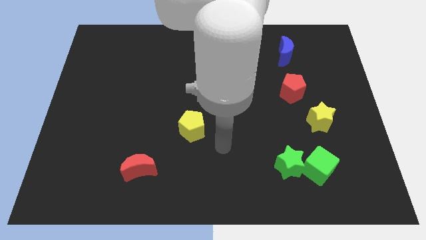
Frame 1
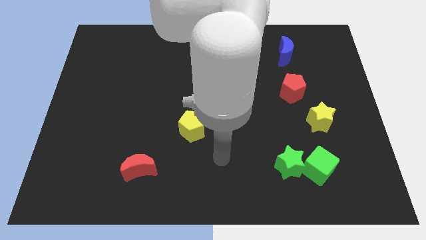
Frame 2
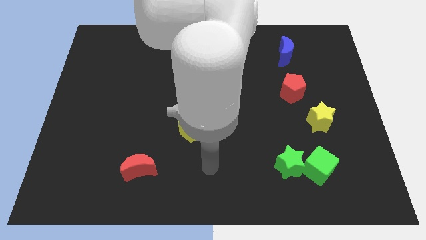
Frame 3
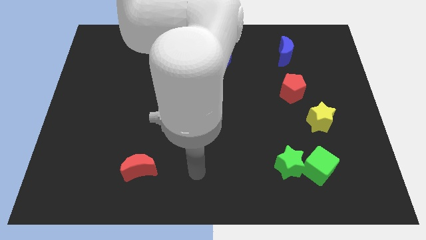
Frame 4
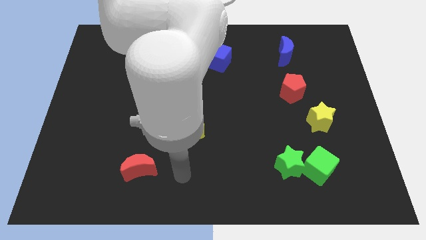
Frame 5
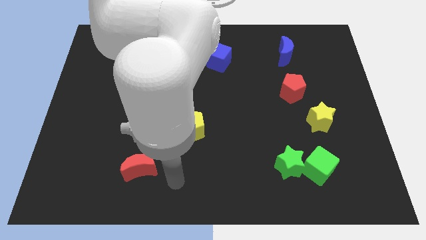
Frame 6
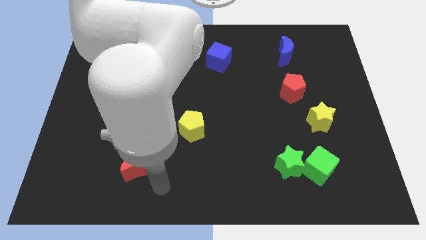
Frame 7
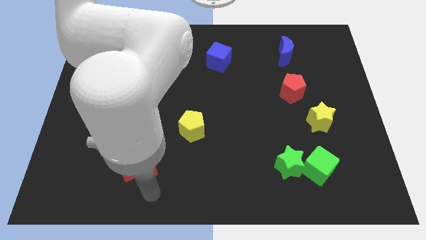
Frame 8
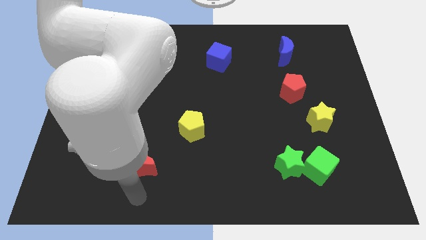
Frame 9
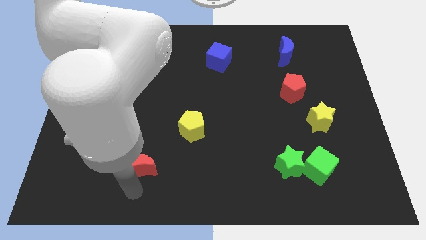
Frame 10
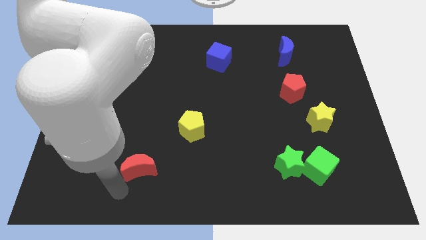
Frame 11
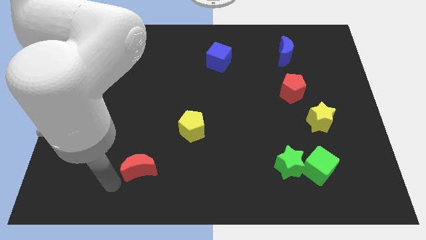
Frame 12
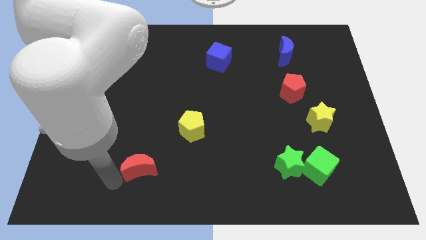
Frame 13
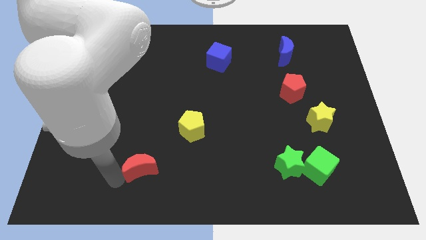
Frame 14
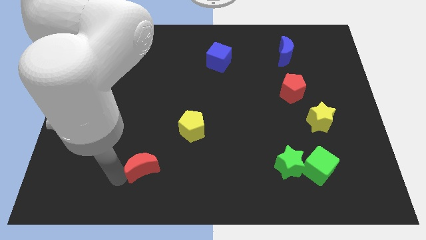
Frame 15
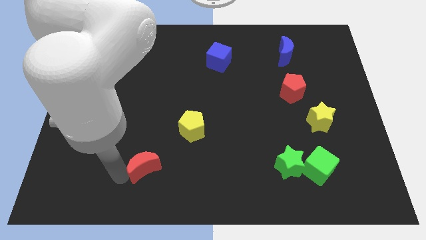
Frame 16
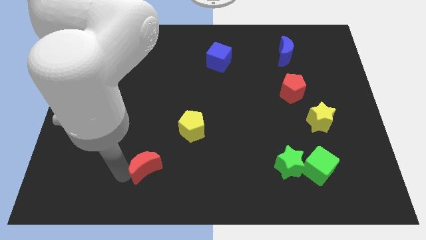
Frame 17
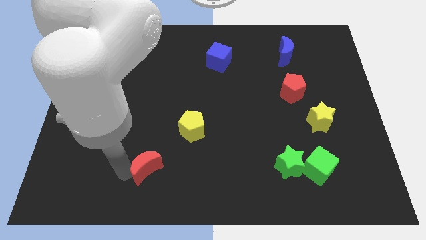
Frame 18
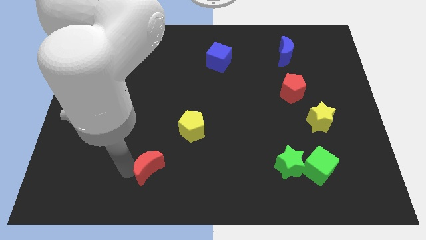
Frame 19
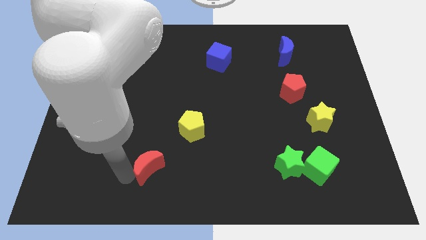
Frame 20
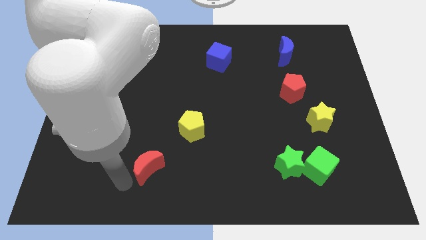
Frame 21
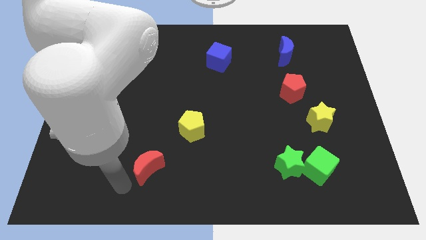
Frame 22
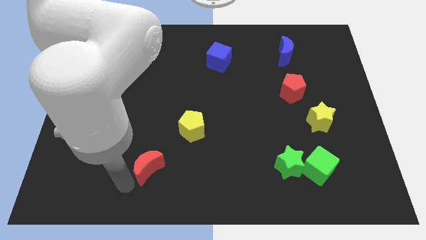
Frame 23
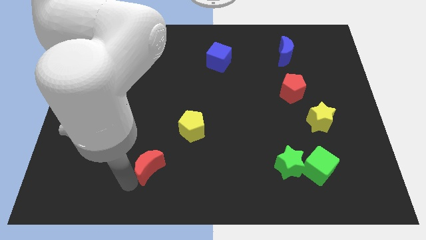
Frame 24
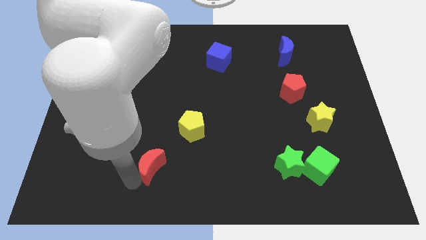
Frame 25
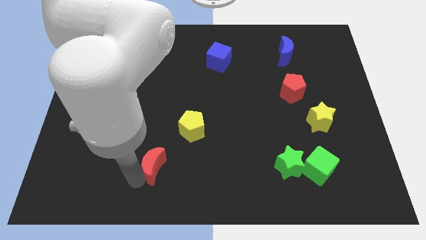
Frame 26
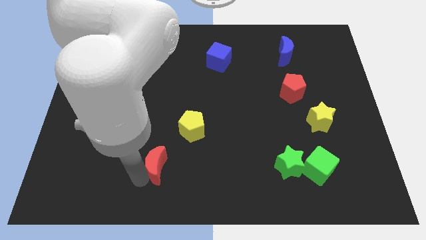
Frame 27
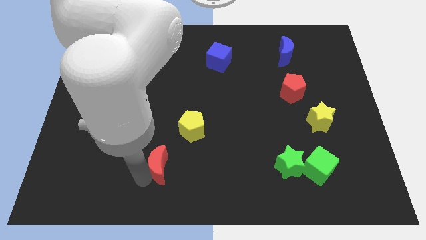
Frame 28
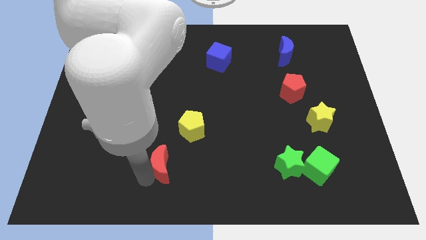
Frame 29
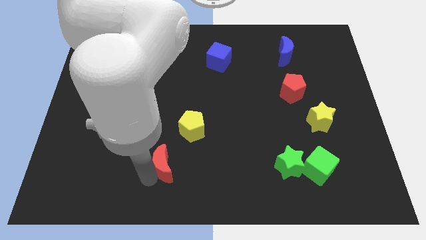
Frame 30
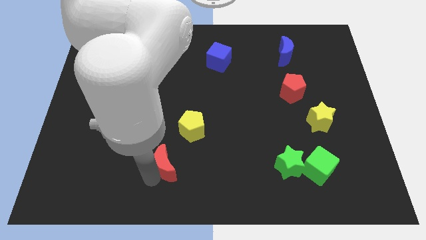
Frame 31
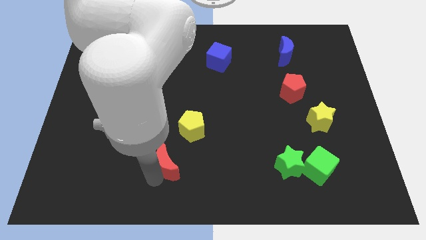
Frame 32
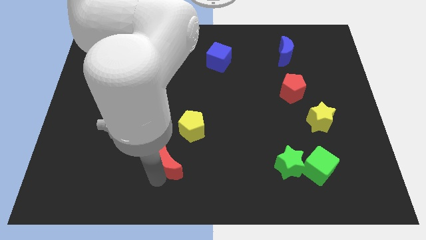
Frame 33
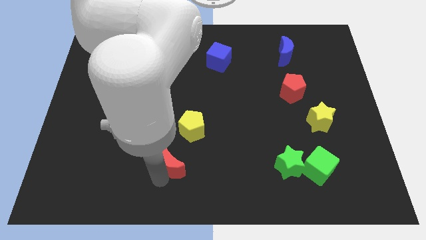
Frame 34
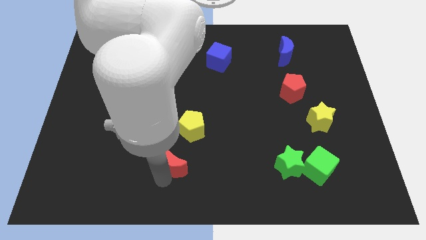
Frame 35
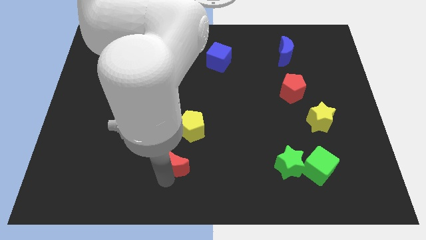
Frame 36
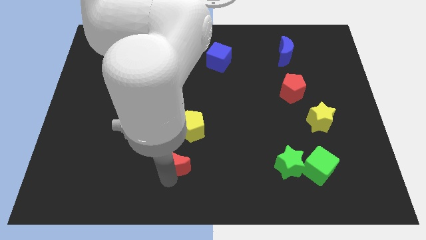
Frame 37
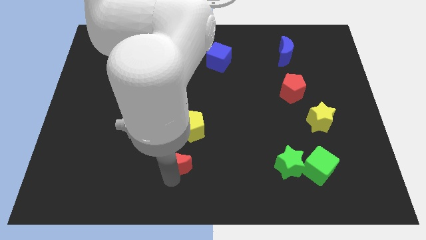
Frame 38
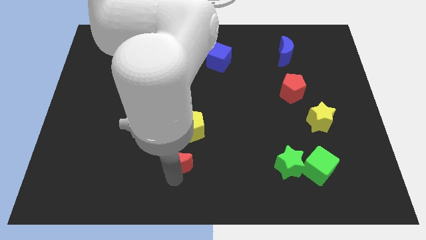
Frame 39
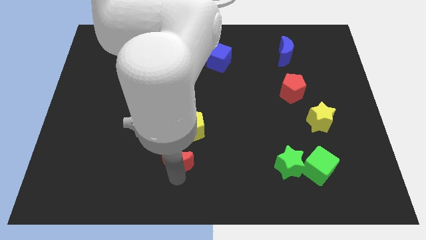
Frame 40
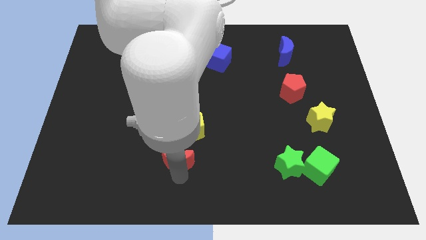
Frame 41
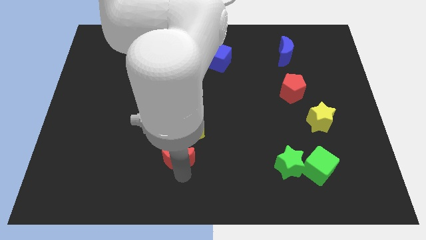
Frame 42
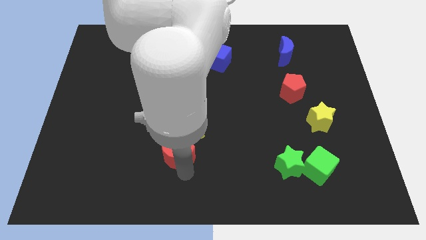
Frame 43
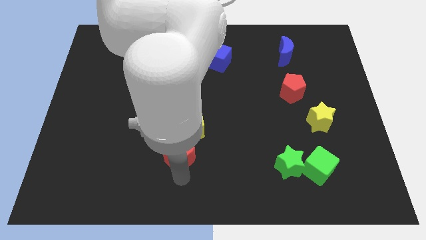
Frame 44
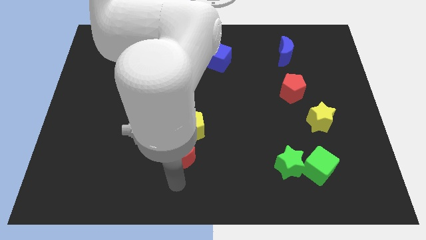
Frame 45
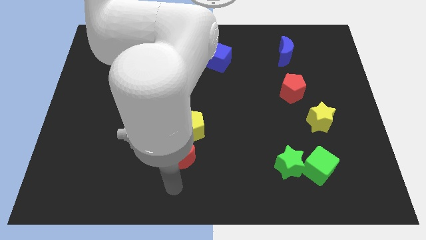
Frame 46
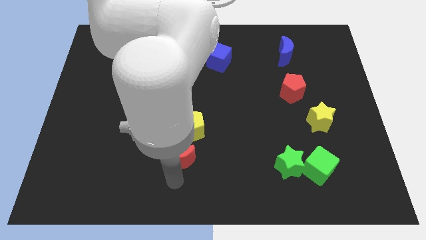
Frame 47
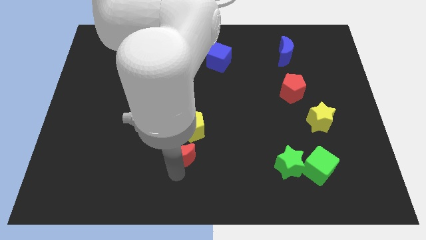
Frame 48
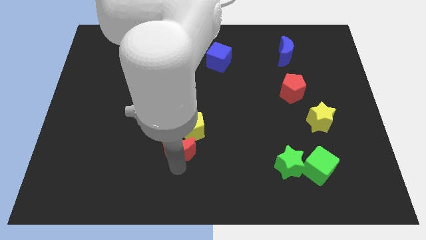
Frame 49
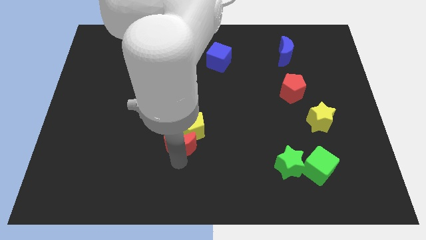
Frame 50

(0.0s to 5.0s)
move the red moon towards the yellow pentagon

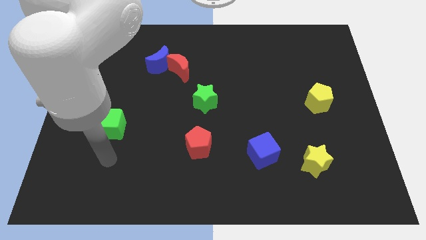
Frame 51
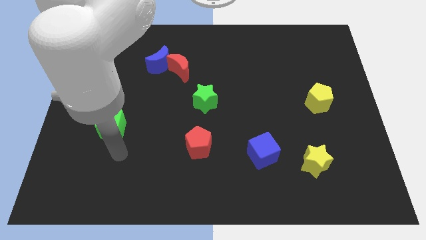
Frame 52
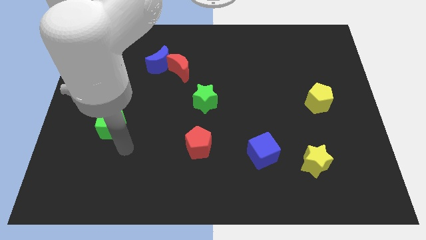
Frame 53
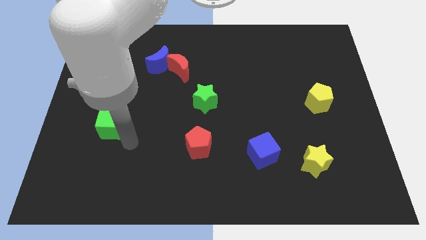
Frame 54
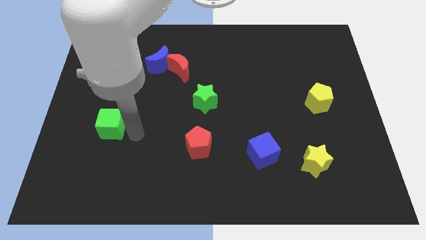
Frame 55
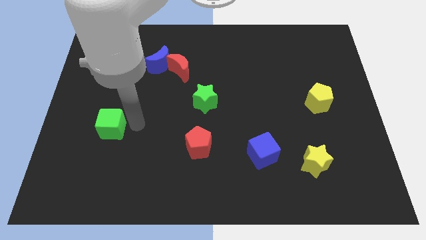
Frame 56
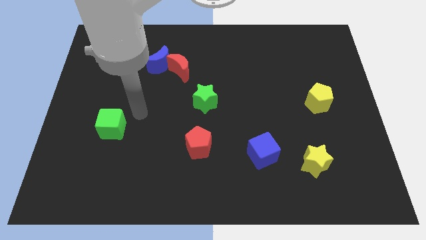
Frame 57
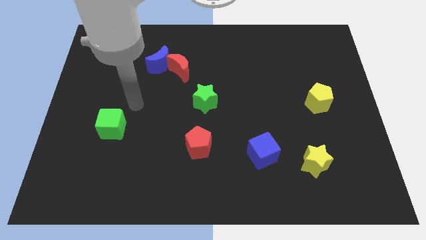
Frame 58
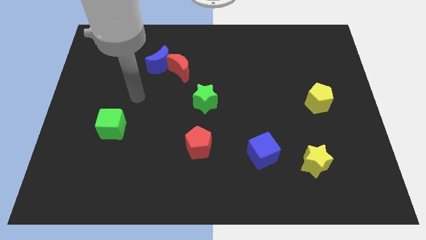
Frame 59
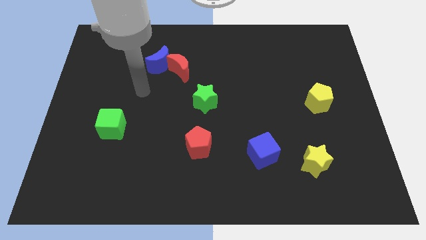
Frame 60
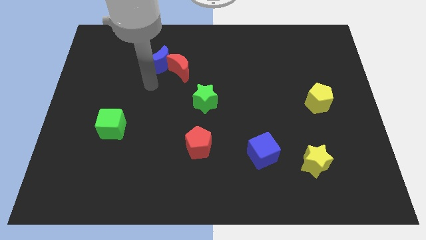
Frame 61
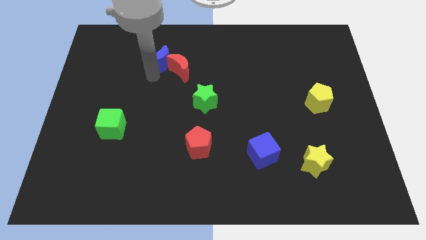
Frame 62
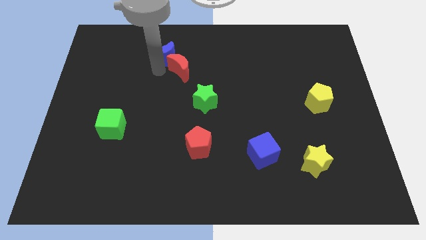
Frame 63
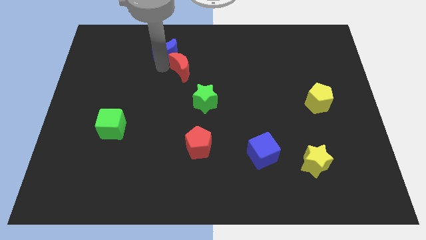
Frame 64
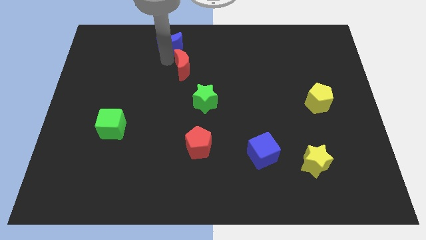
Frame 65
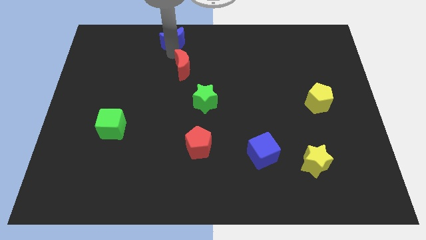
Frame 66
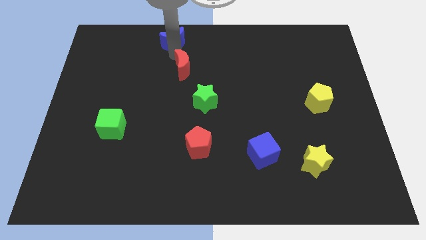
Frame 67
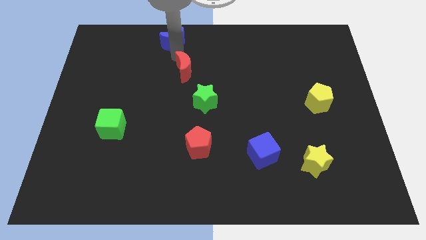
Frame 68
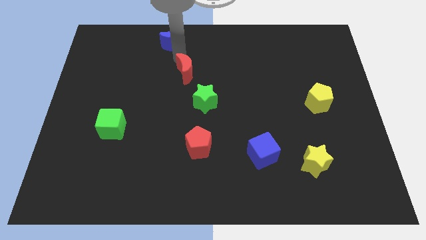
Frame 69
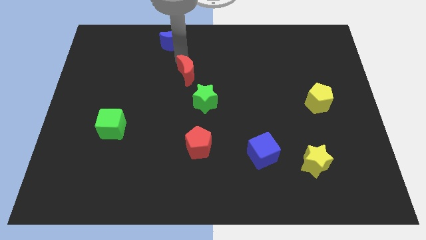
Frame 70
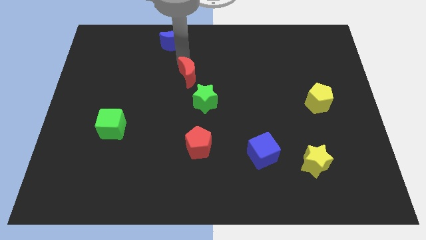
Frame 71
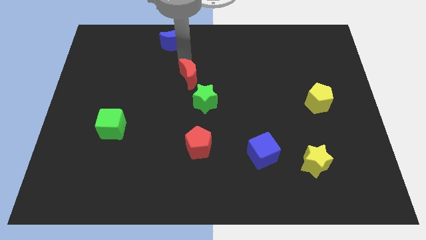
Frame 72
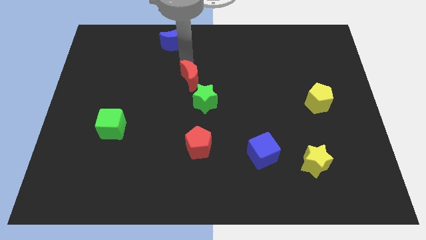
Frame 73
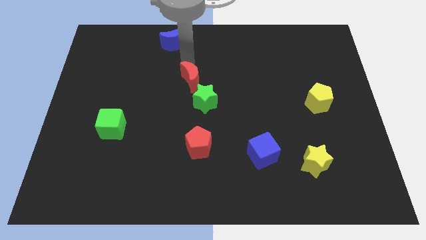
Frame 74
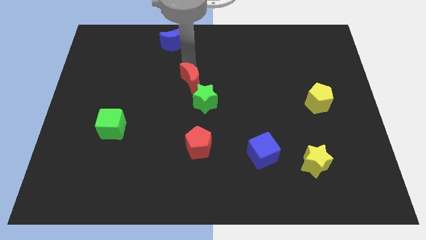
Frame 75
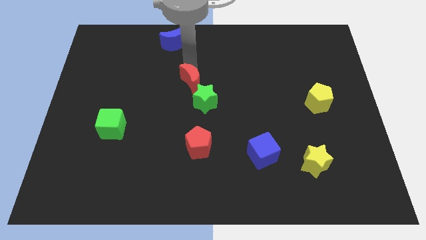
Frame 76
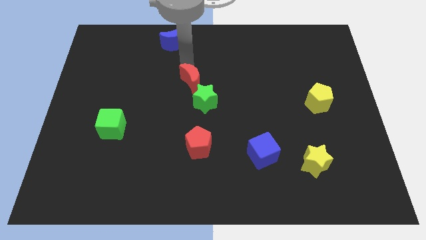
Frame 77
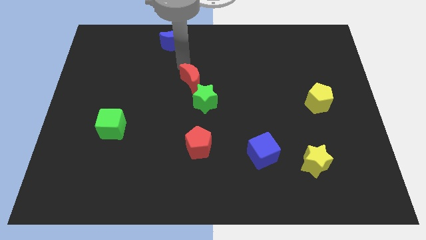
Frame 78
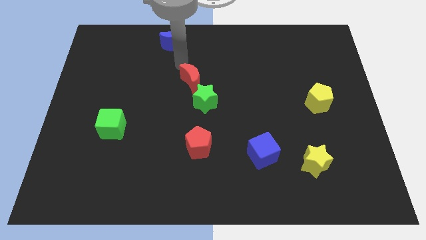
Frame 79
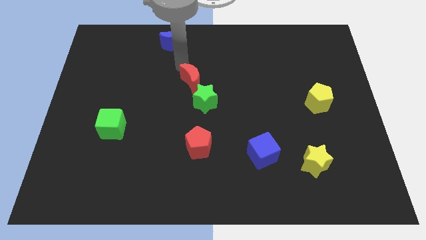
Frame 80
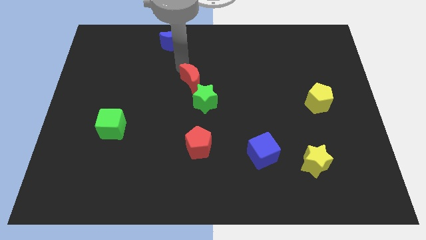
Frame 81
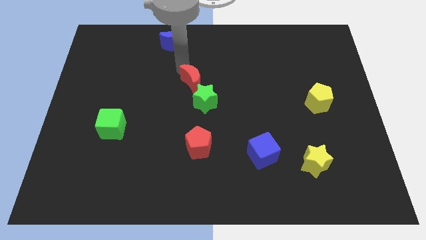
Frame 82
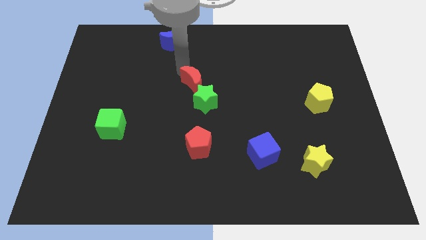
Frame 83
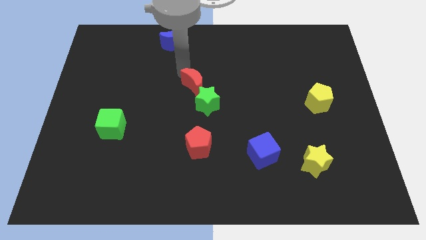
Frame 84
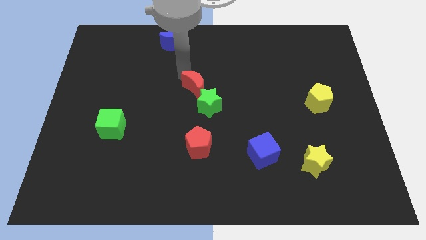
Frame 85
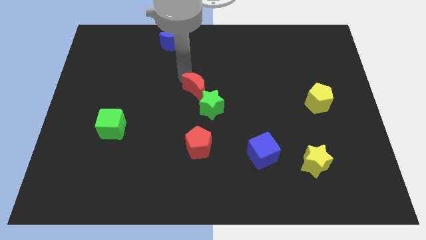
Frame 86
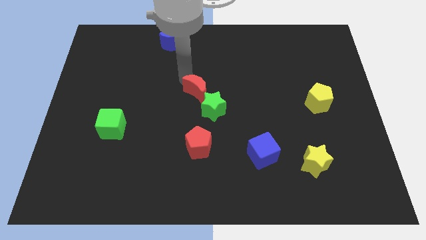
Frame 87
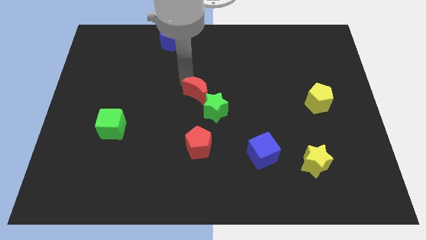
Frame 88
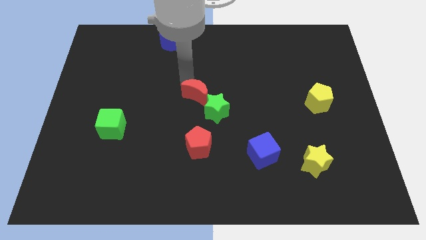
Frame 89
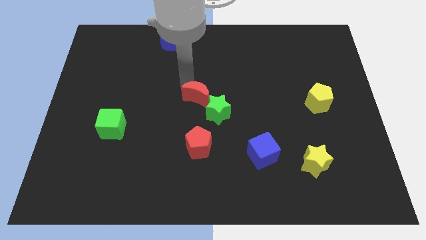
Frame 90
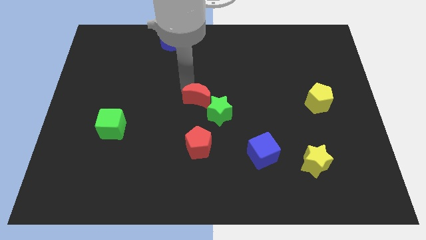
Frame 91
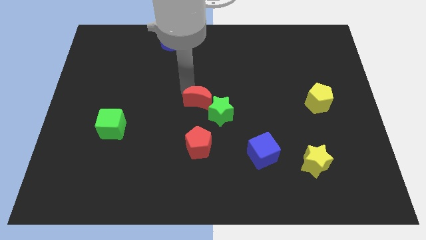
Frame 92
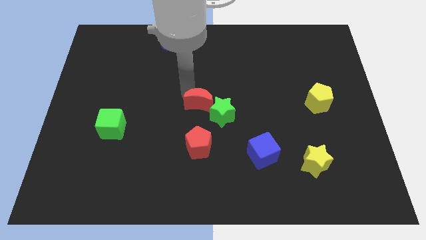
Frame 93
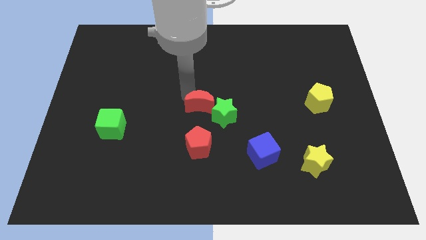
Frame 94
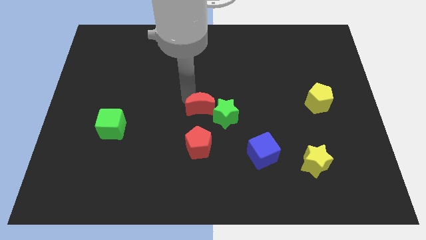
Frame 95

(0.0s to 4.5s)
put the red moon to the green star
